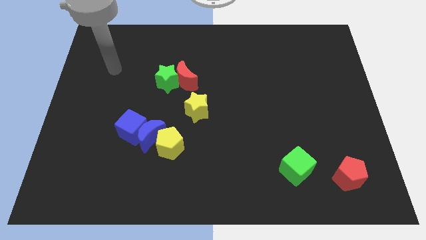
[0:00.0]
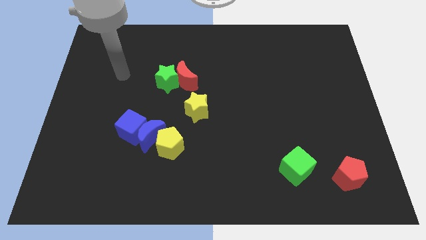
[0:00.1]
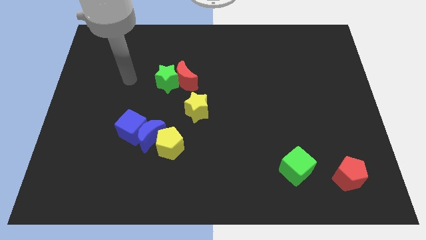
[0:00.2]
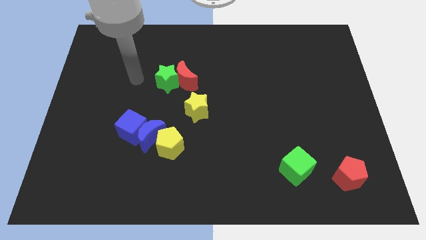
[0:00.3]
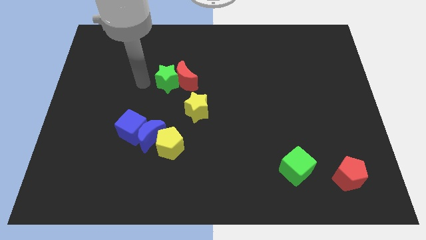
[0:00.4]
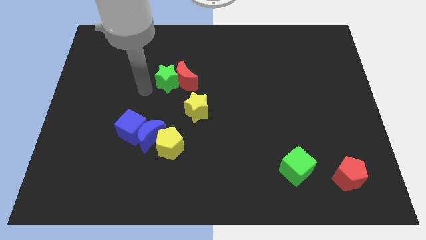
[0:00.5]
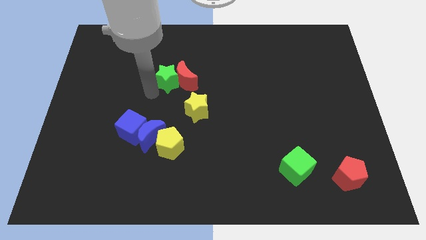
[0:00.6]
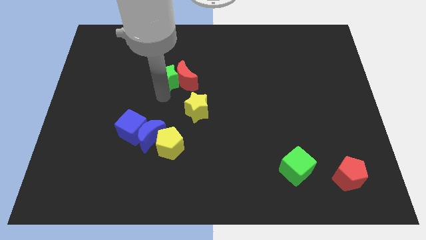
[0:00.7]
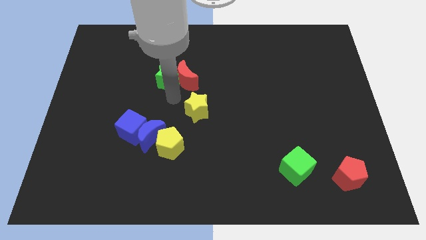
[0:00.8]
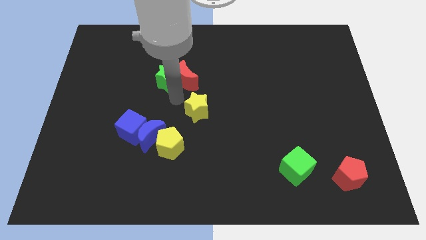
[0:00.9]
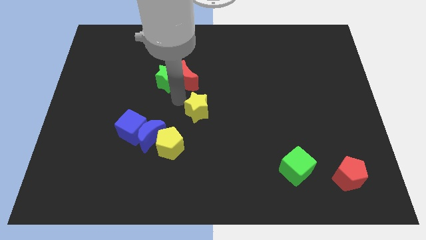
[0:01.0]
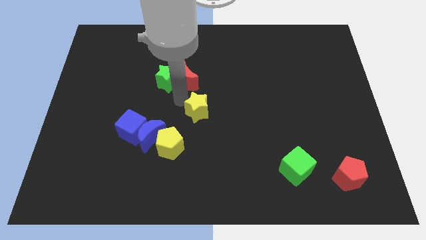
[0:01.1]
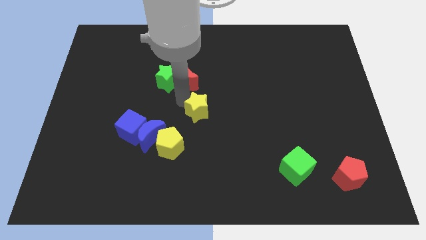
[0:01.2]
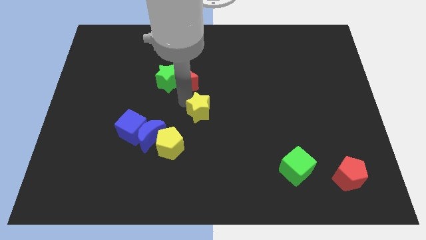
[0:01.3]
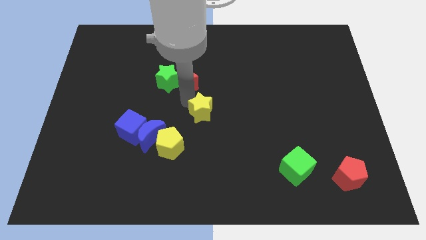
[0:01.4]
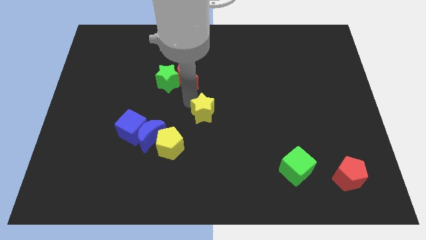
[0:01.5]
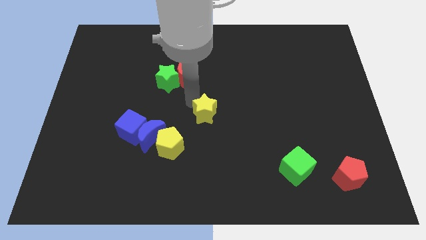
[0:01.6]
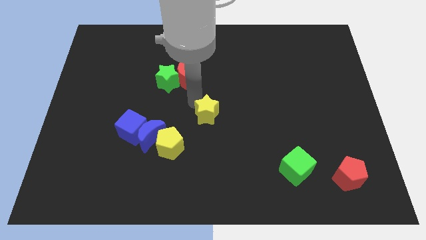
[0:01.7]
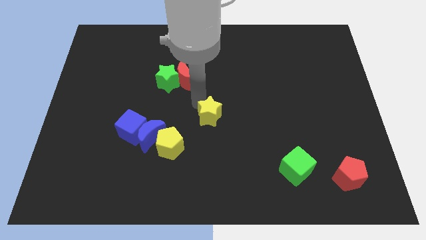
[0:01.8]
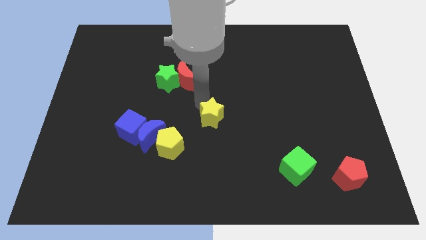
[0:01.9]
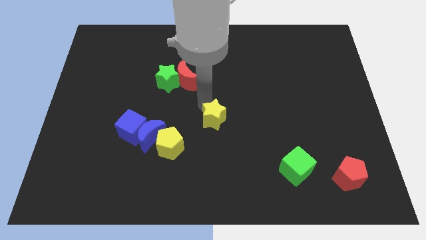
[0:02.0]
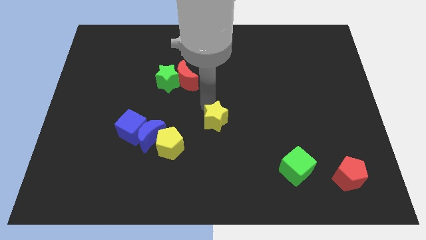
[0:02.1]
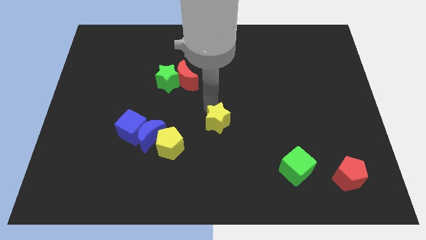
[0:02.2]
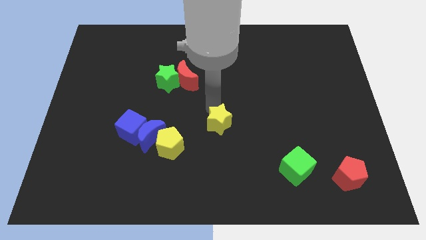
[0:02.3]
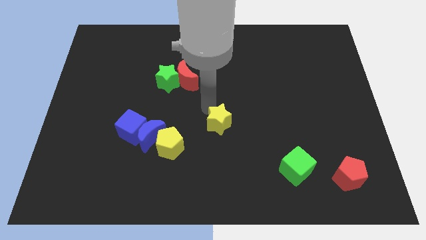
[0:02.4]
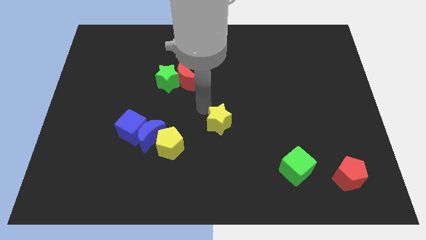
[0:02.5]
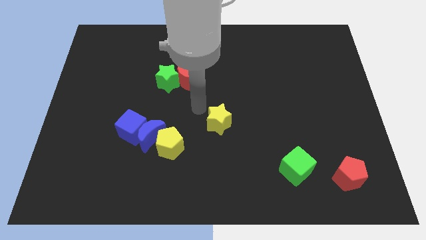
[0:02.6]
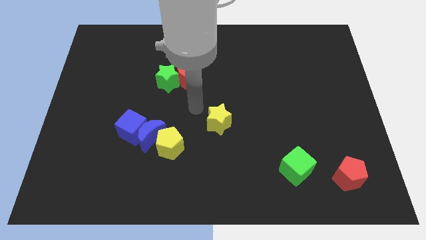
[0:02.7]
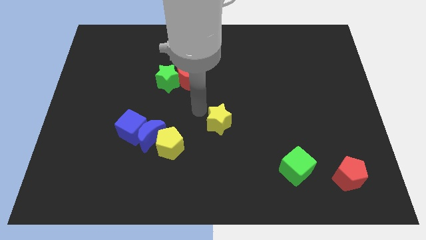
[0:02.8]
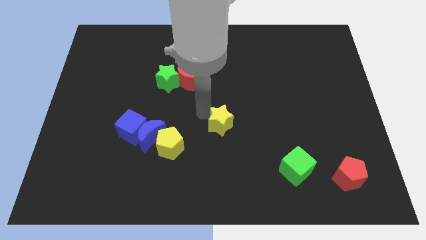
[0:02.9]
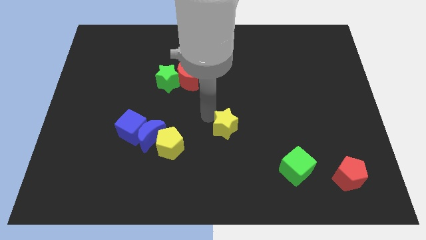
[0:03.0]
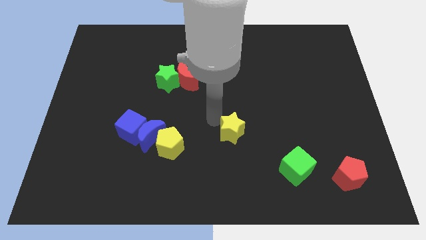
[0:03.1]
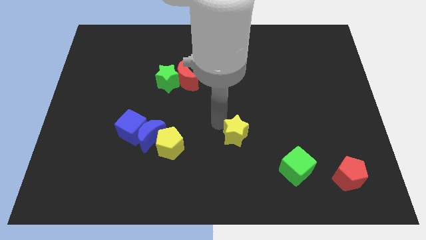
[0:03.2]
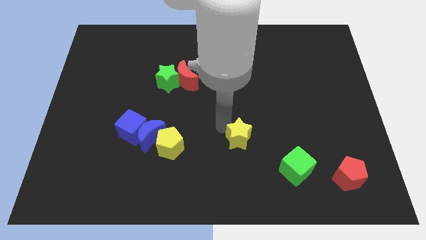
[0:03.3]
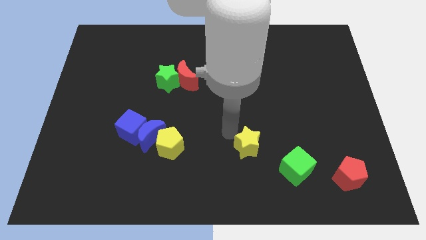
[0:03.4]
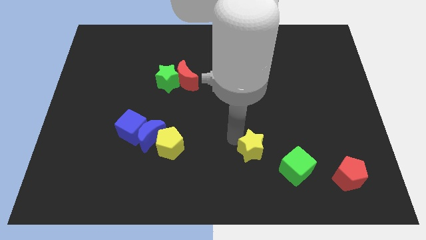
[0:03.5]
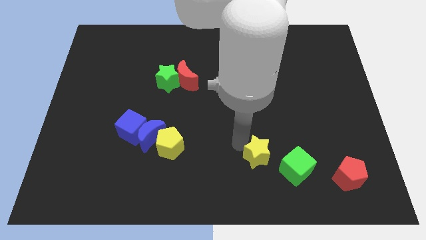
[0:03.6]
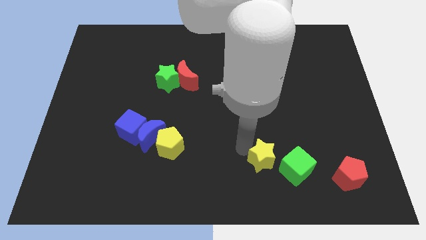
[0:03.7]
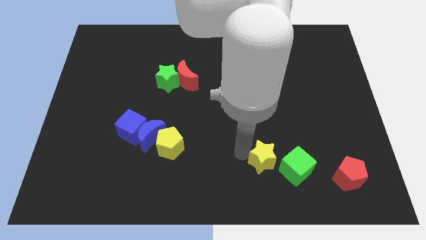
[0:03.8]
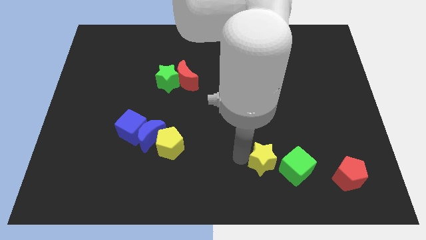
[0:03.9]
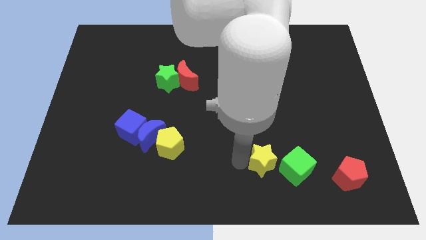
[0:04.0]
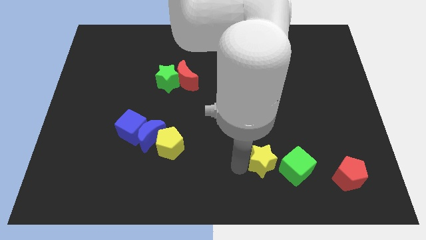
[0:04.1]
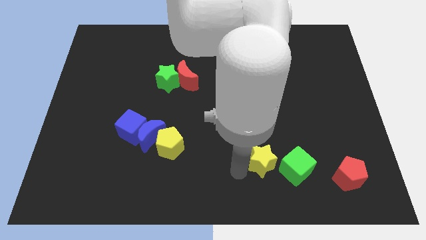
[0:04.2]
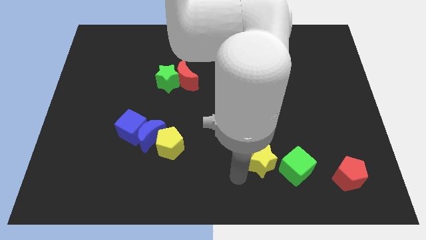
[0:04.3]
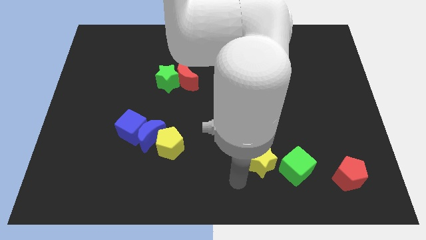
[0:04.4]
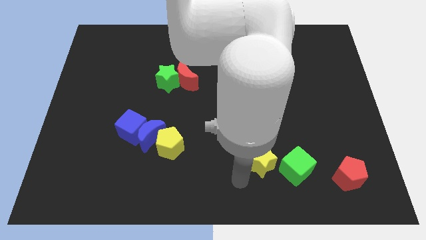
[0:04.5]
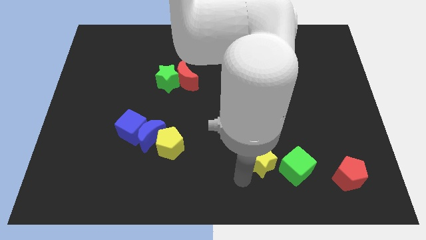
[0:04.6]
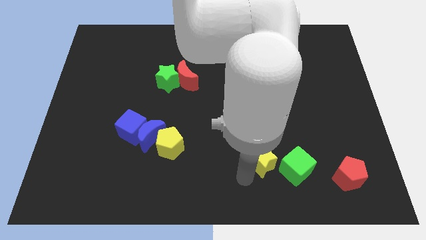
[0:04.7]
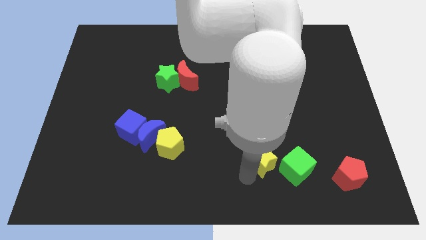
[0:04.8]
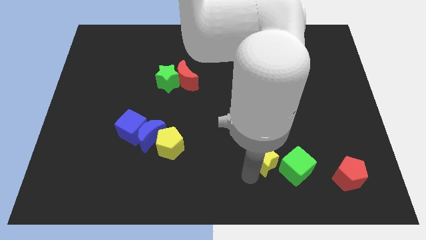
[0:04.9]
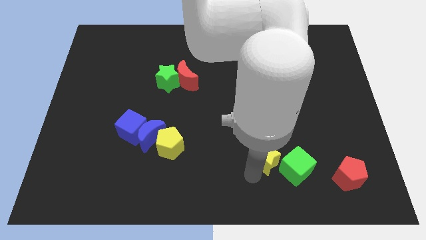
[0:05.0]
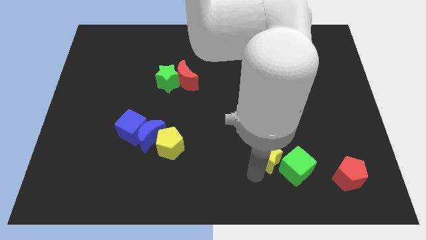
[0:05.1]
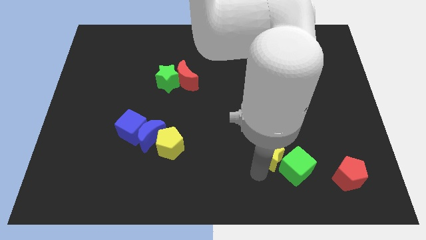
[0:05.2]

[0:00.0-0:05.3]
slide the yellow star towards the green cube

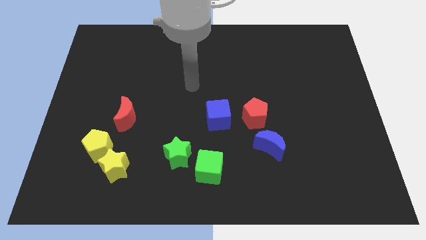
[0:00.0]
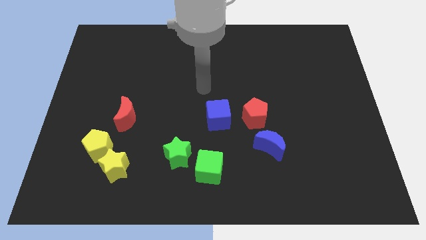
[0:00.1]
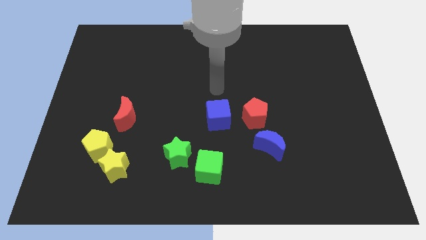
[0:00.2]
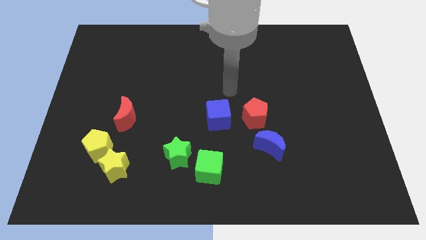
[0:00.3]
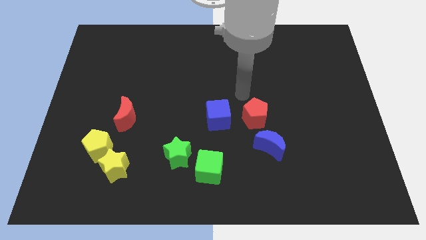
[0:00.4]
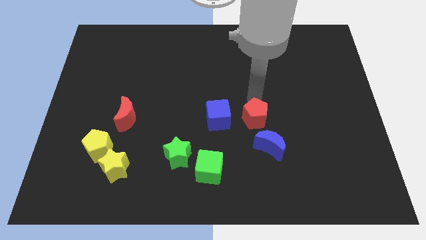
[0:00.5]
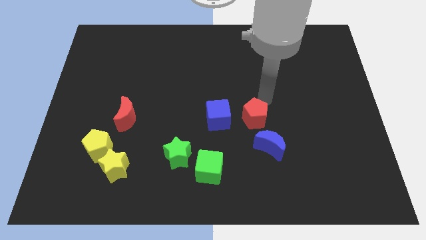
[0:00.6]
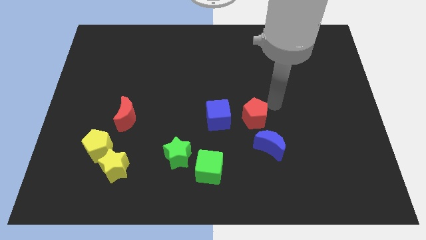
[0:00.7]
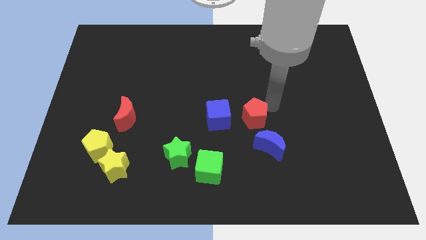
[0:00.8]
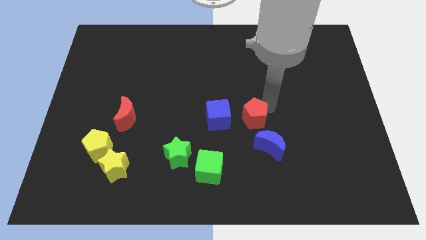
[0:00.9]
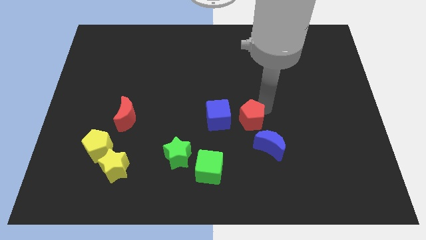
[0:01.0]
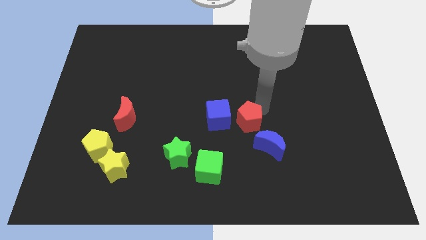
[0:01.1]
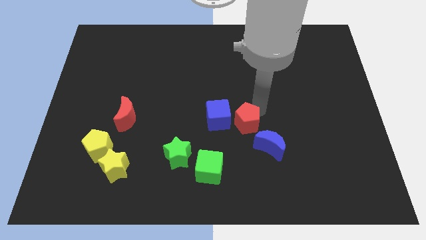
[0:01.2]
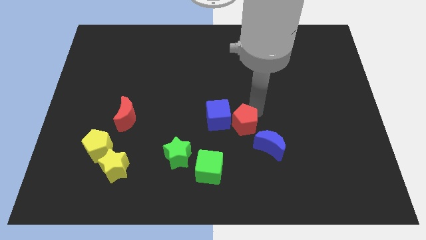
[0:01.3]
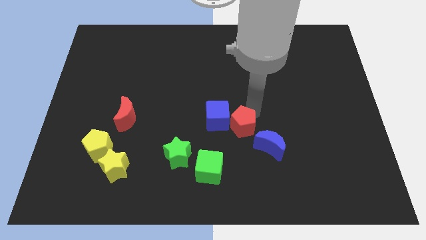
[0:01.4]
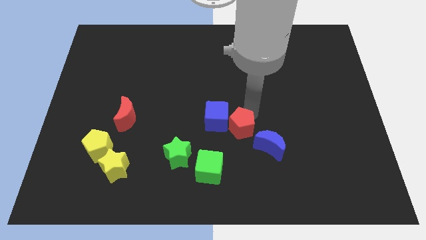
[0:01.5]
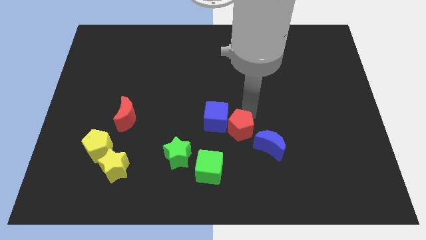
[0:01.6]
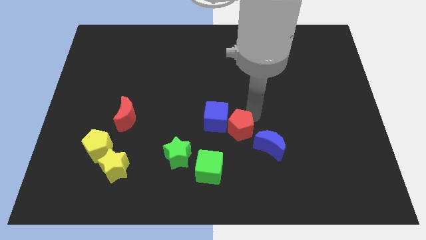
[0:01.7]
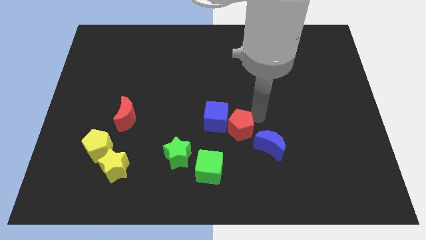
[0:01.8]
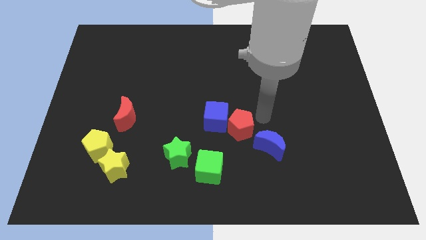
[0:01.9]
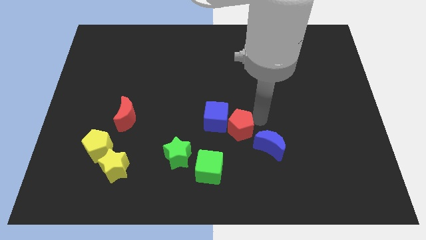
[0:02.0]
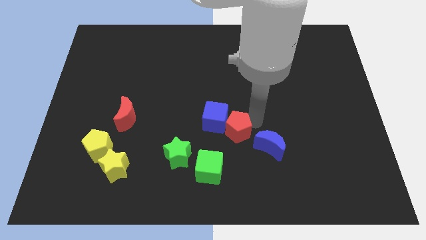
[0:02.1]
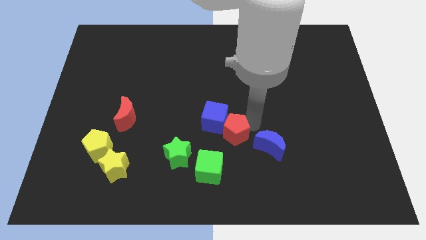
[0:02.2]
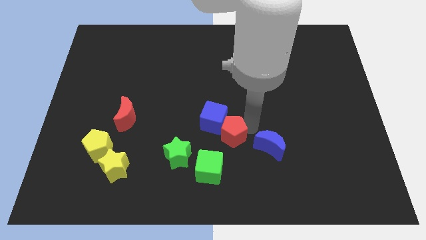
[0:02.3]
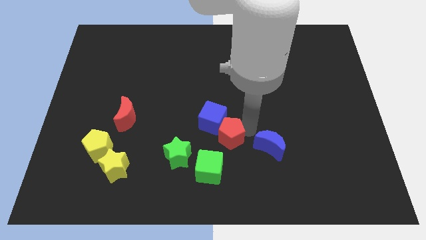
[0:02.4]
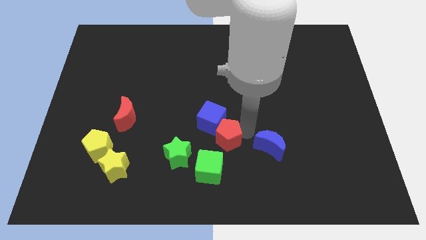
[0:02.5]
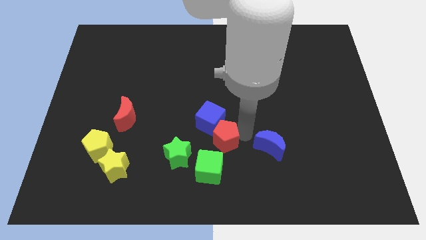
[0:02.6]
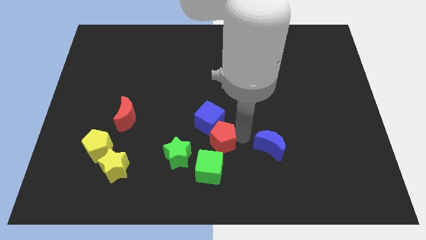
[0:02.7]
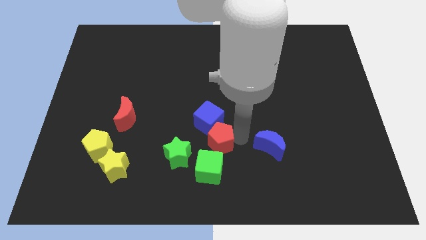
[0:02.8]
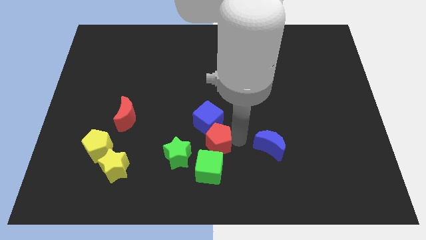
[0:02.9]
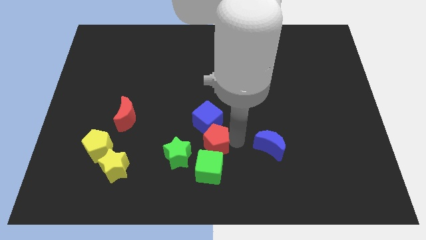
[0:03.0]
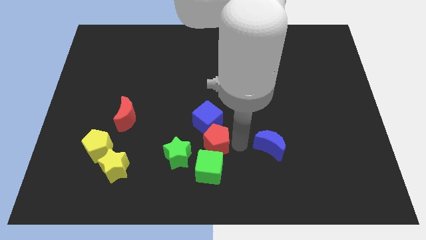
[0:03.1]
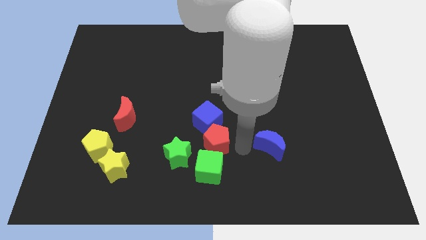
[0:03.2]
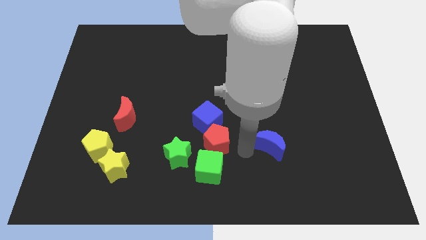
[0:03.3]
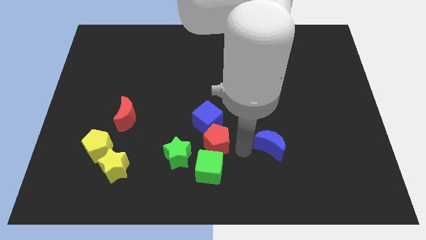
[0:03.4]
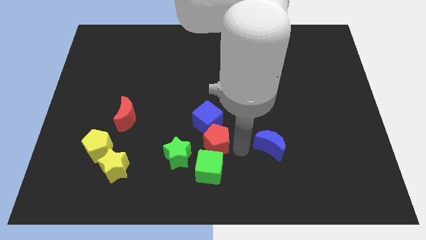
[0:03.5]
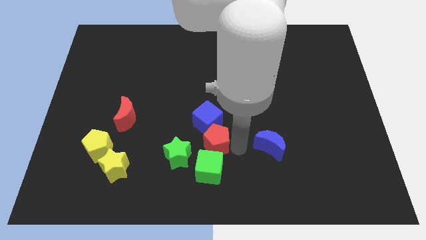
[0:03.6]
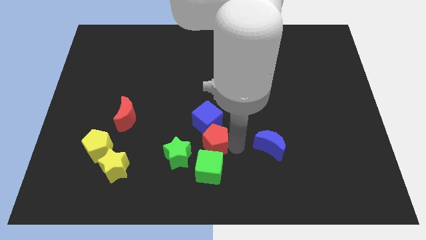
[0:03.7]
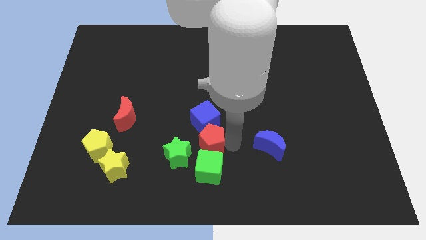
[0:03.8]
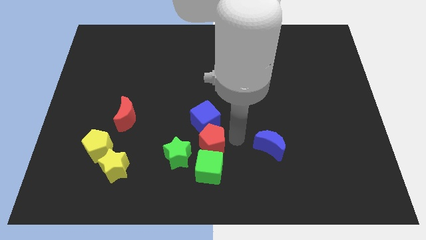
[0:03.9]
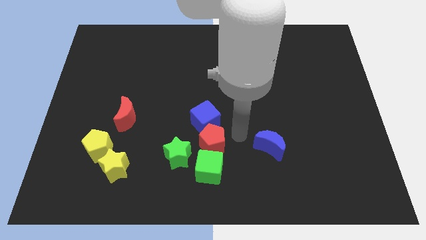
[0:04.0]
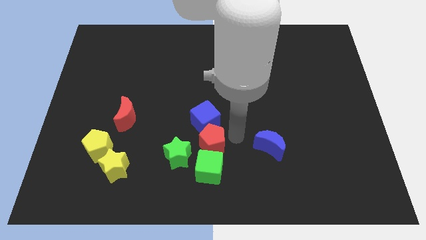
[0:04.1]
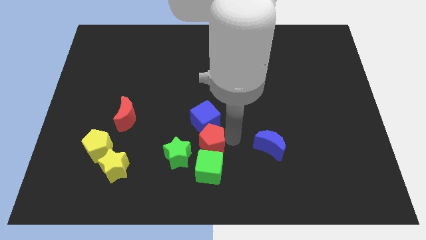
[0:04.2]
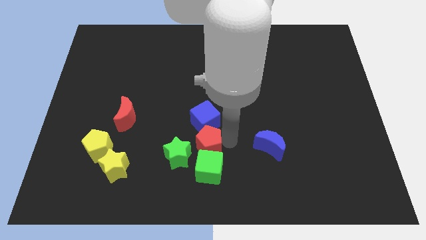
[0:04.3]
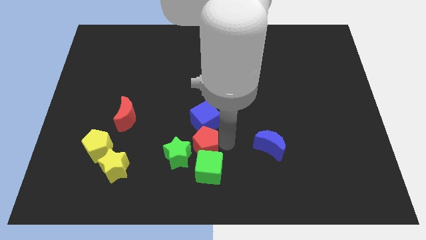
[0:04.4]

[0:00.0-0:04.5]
push the red pentagon close to the green star
